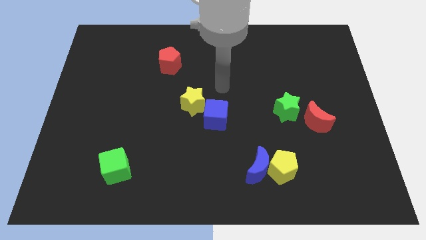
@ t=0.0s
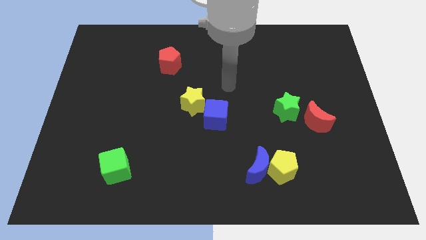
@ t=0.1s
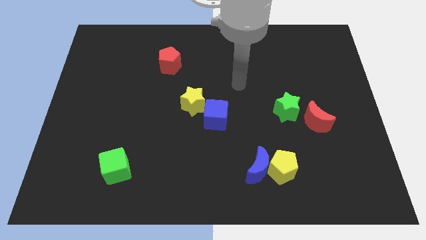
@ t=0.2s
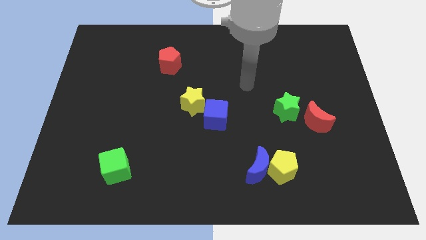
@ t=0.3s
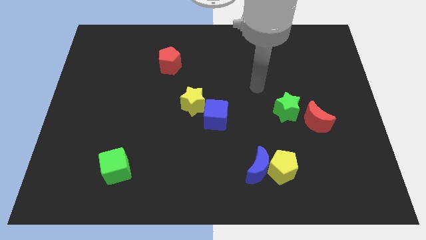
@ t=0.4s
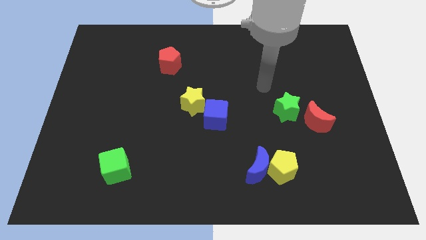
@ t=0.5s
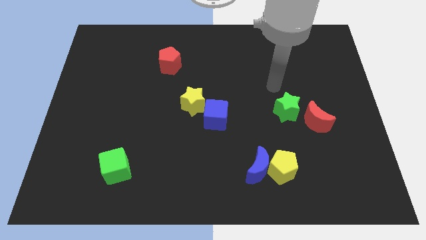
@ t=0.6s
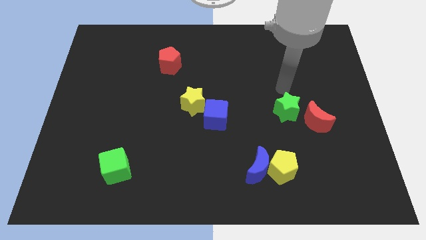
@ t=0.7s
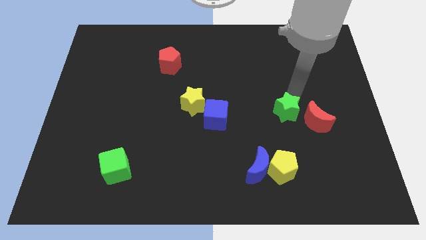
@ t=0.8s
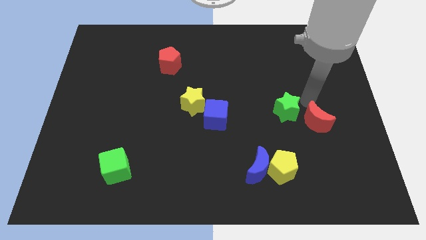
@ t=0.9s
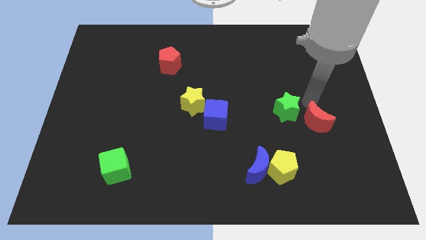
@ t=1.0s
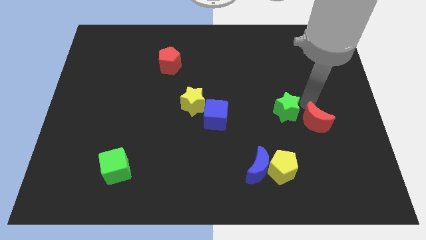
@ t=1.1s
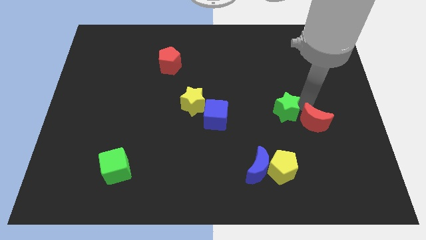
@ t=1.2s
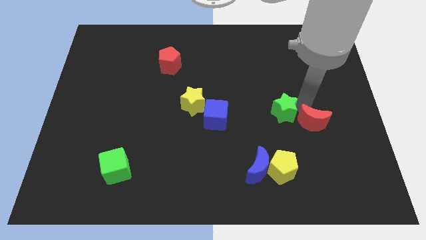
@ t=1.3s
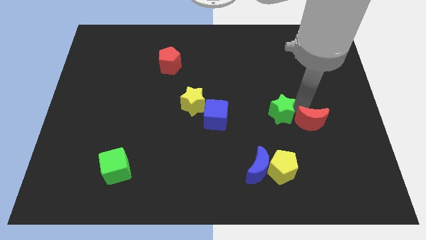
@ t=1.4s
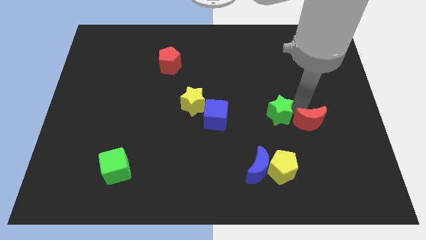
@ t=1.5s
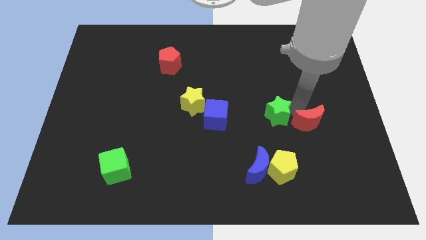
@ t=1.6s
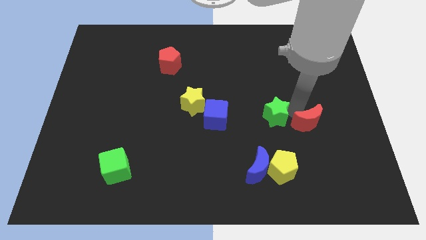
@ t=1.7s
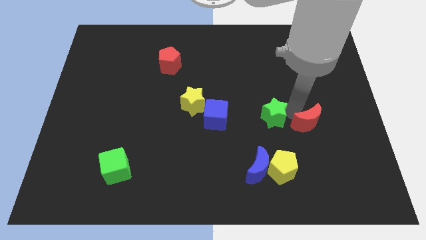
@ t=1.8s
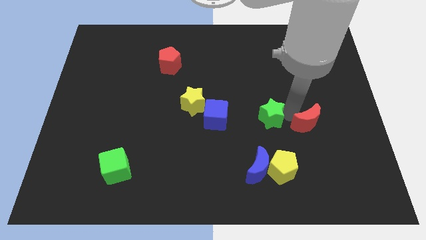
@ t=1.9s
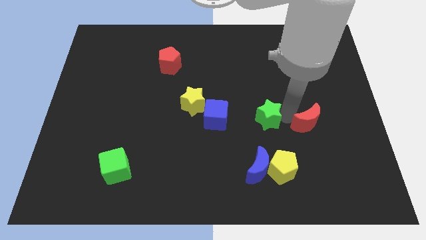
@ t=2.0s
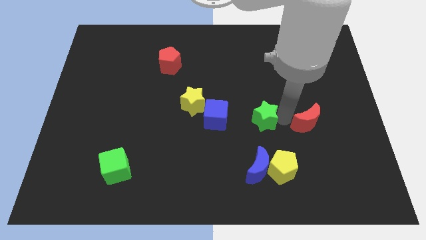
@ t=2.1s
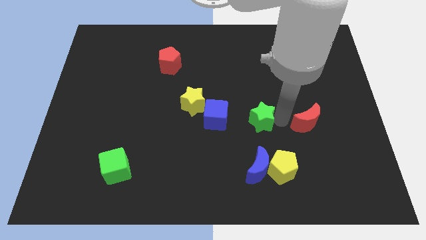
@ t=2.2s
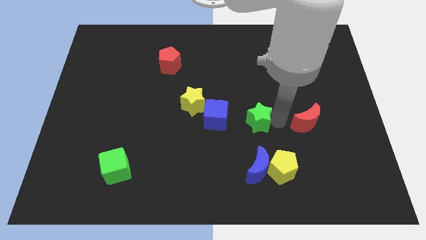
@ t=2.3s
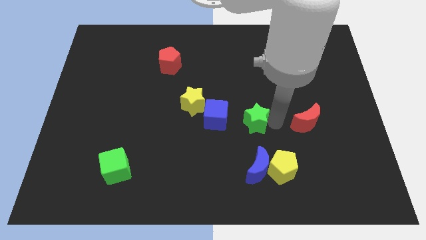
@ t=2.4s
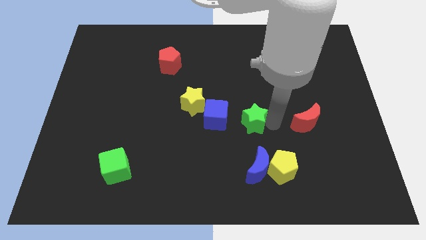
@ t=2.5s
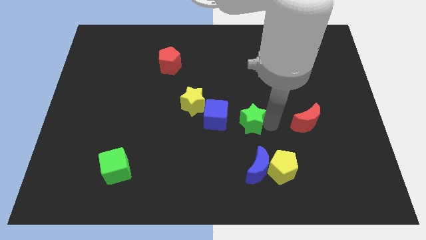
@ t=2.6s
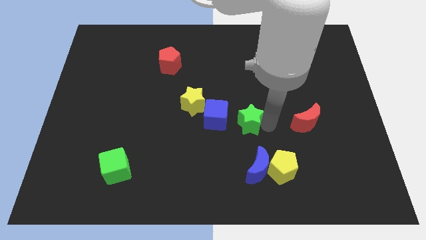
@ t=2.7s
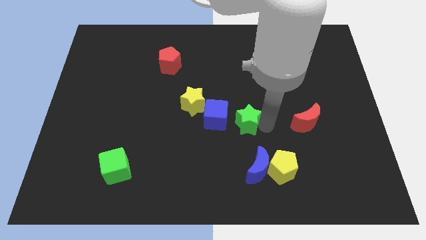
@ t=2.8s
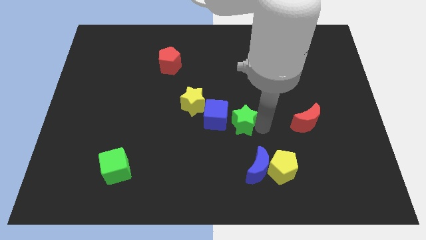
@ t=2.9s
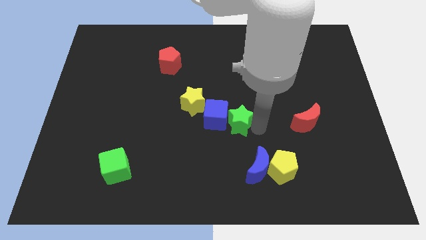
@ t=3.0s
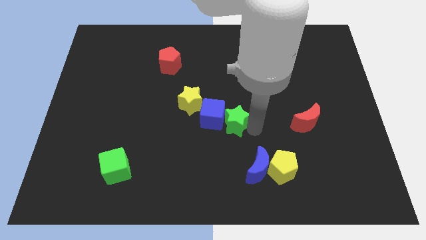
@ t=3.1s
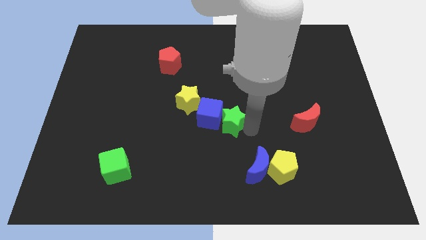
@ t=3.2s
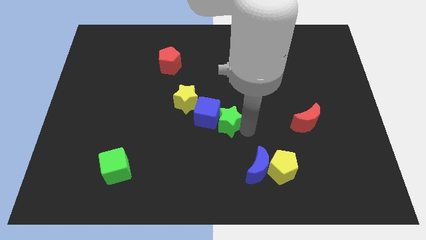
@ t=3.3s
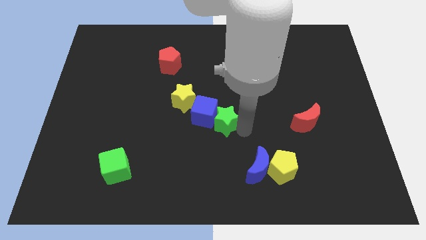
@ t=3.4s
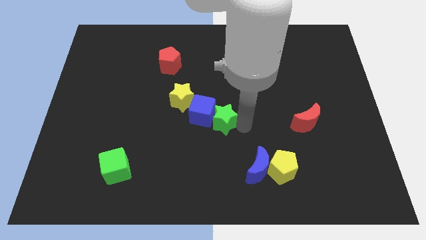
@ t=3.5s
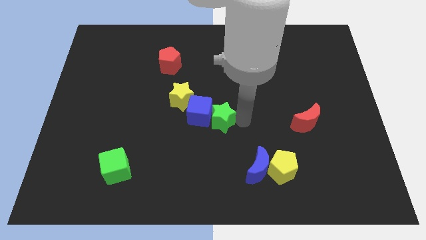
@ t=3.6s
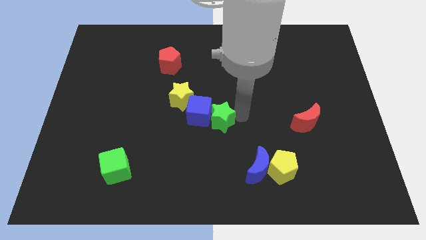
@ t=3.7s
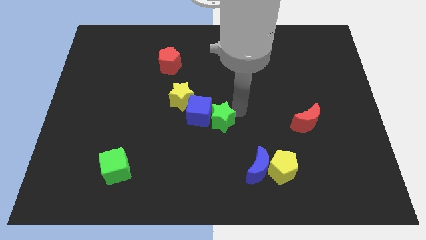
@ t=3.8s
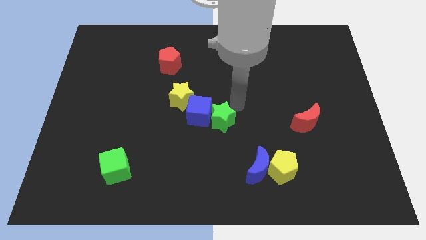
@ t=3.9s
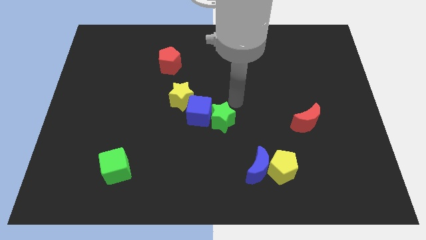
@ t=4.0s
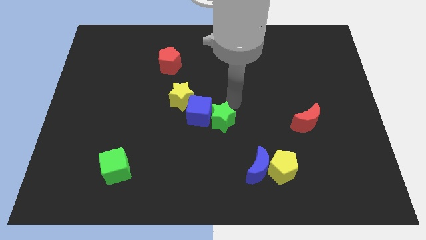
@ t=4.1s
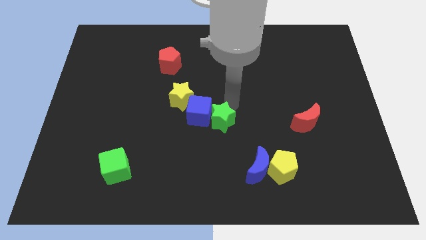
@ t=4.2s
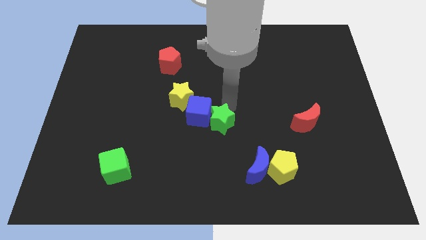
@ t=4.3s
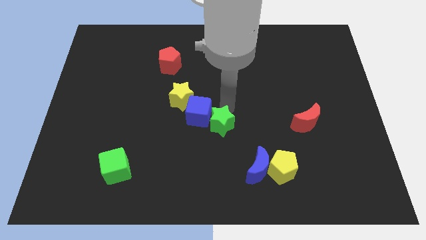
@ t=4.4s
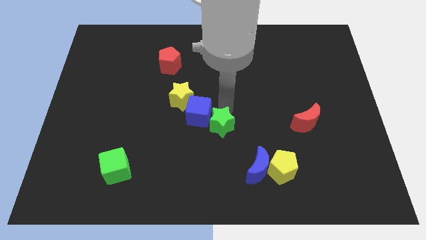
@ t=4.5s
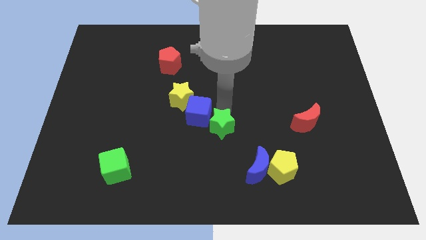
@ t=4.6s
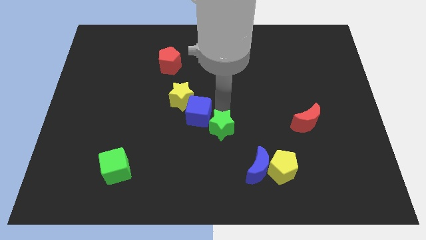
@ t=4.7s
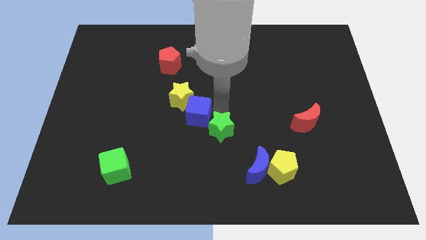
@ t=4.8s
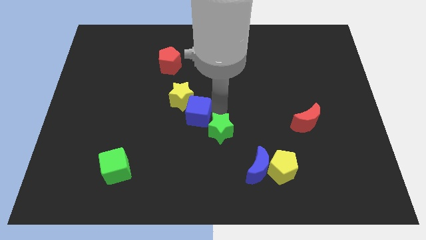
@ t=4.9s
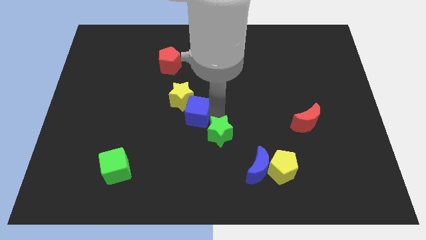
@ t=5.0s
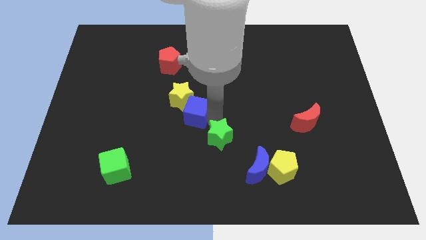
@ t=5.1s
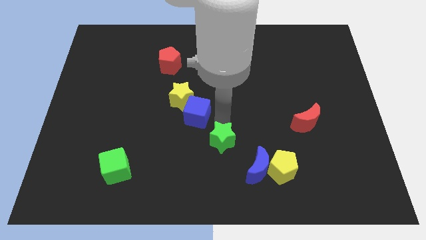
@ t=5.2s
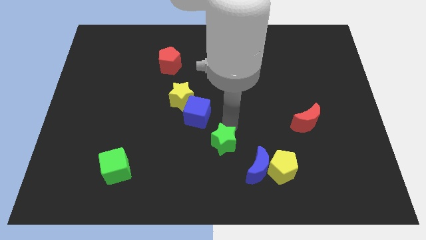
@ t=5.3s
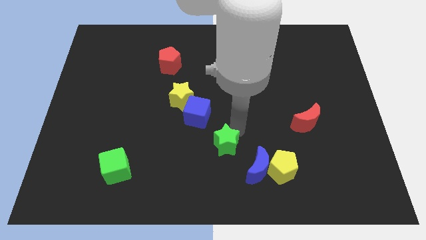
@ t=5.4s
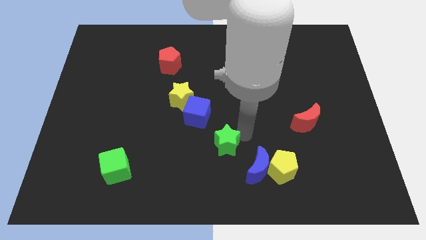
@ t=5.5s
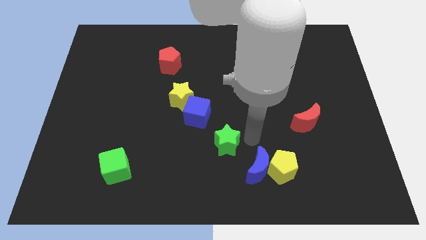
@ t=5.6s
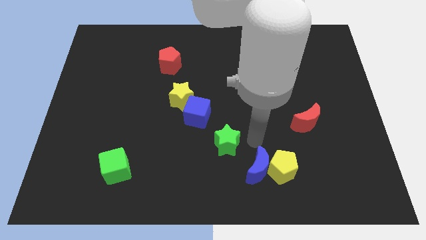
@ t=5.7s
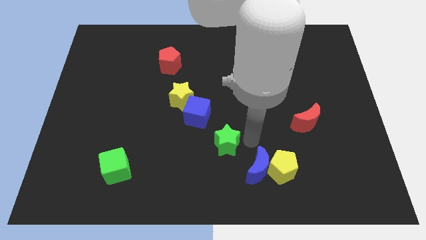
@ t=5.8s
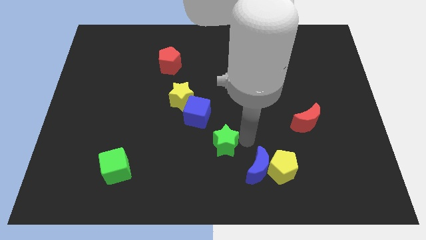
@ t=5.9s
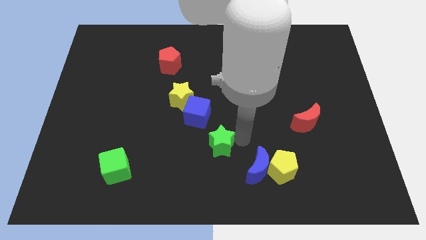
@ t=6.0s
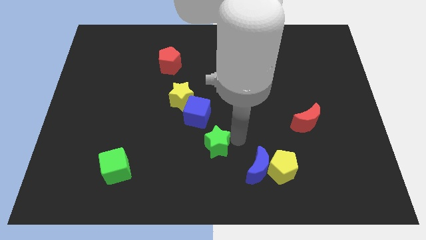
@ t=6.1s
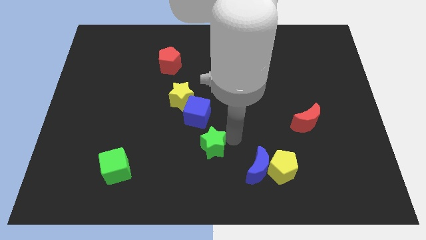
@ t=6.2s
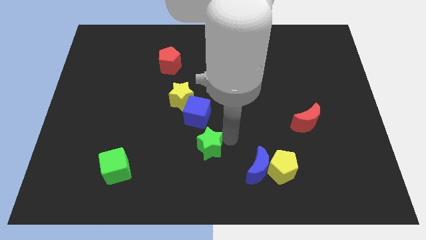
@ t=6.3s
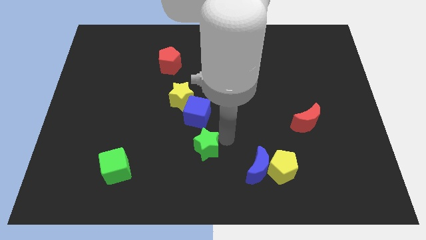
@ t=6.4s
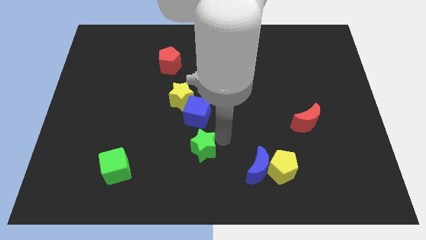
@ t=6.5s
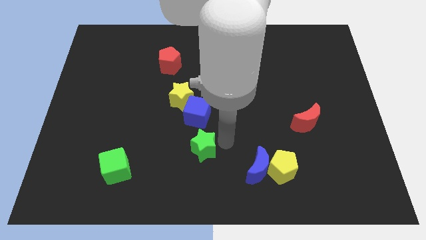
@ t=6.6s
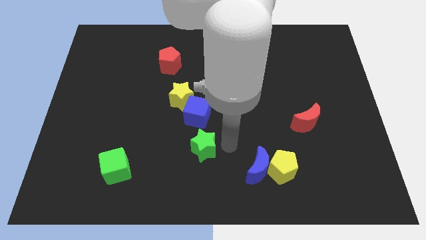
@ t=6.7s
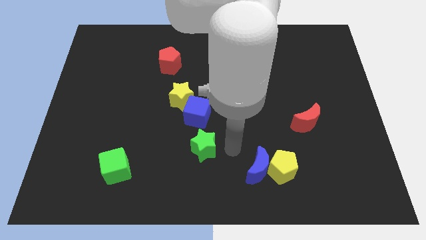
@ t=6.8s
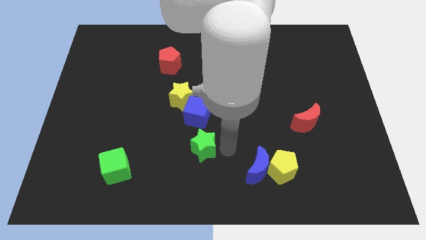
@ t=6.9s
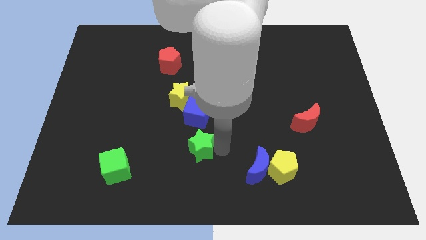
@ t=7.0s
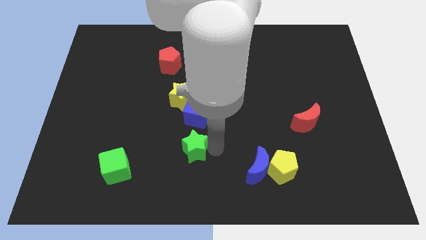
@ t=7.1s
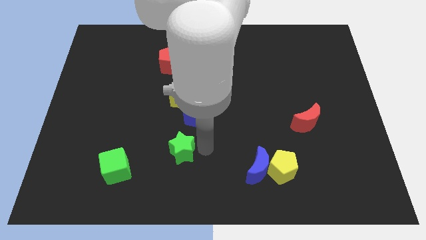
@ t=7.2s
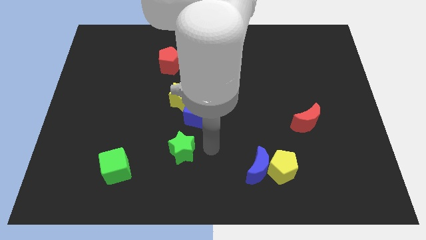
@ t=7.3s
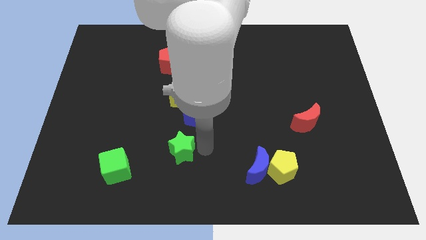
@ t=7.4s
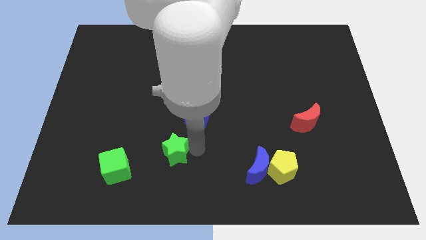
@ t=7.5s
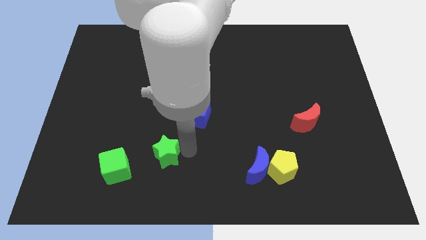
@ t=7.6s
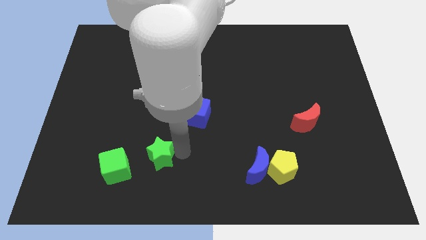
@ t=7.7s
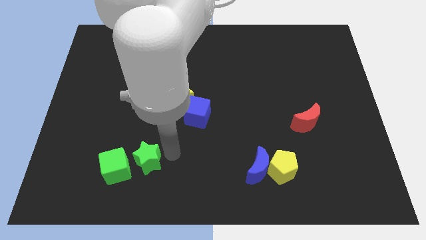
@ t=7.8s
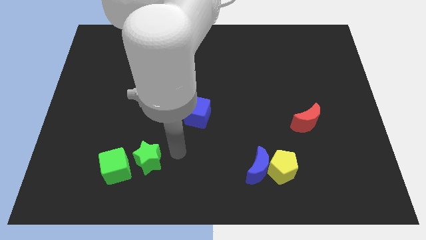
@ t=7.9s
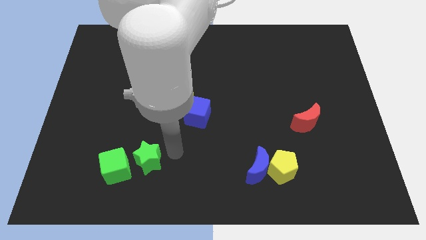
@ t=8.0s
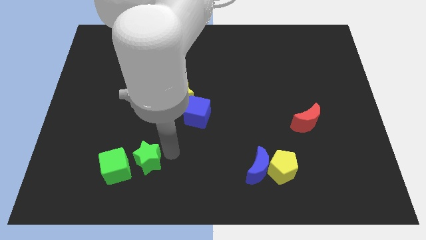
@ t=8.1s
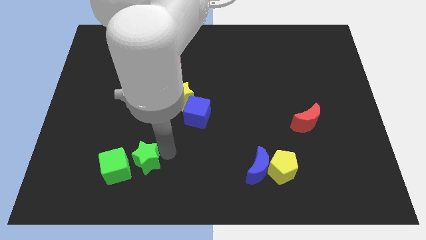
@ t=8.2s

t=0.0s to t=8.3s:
move the green star towards the green cube
